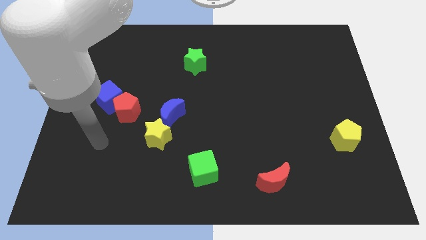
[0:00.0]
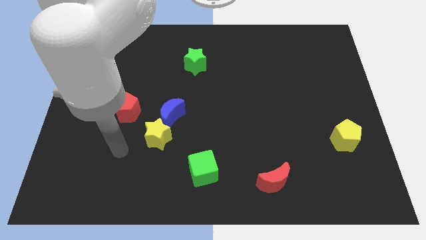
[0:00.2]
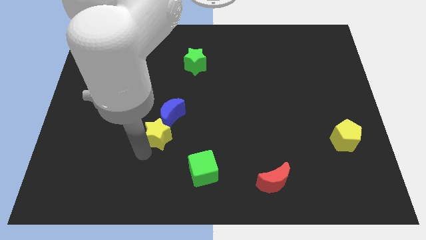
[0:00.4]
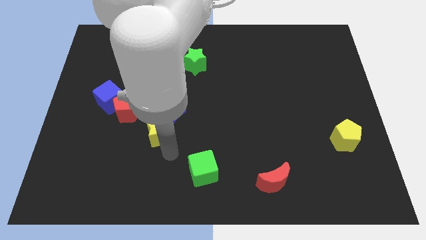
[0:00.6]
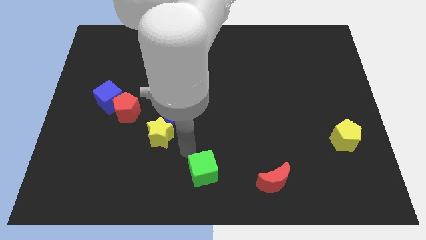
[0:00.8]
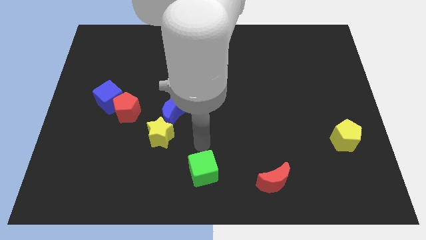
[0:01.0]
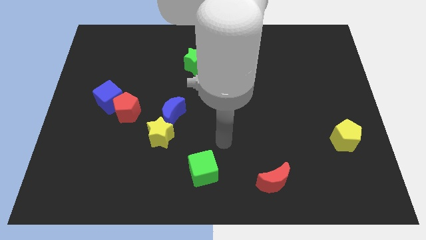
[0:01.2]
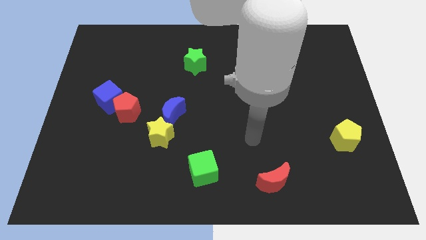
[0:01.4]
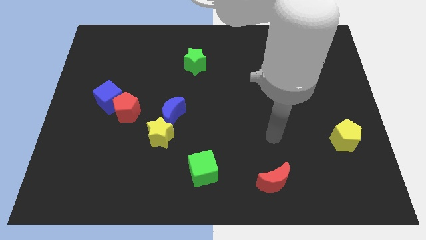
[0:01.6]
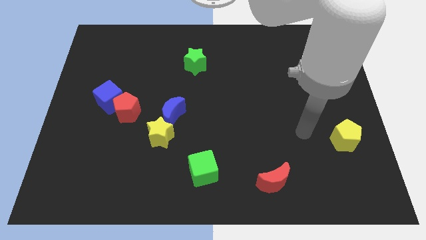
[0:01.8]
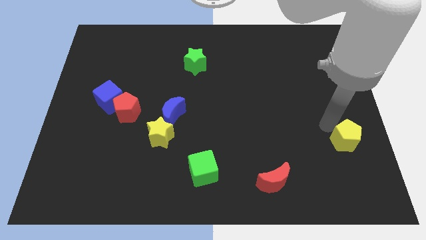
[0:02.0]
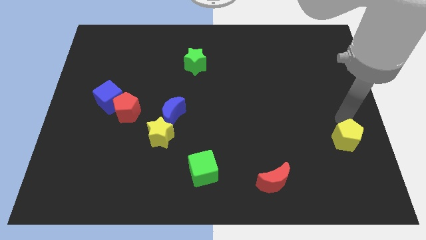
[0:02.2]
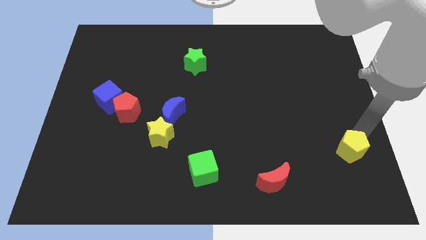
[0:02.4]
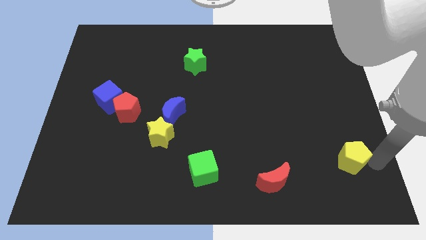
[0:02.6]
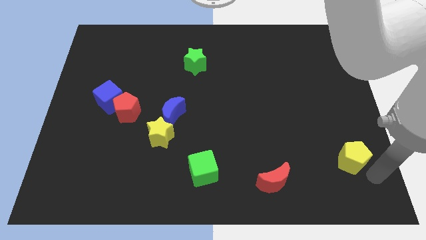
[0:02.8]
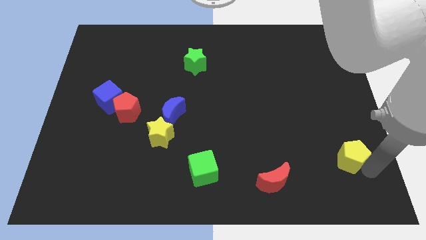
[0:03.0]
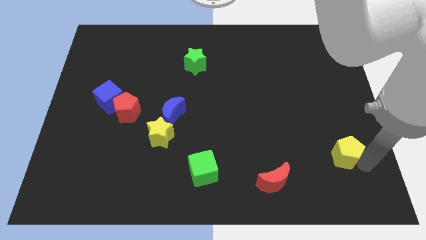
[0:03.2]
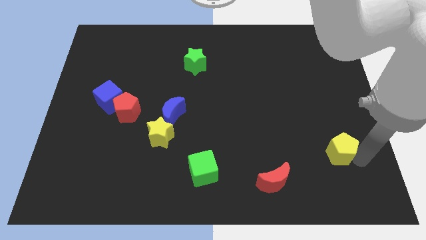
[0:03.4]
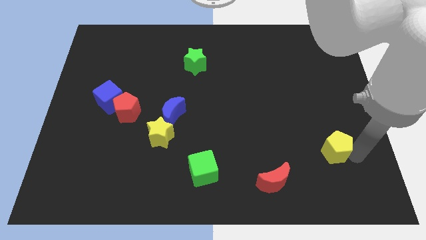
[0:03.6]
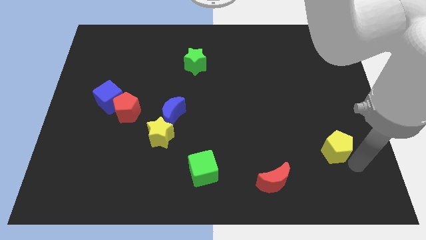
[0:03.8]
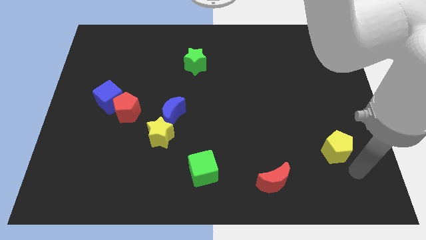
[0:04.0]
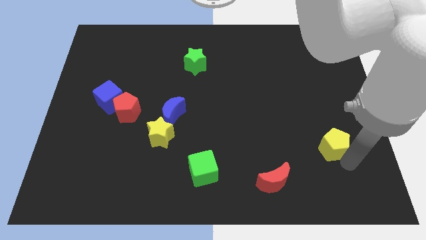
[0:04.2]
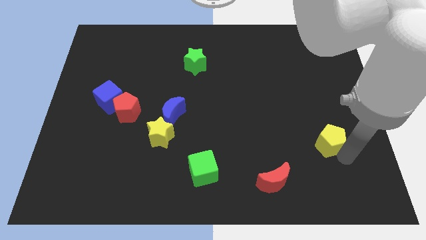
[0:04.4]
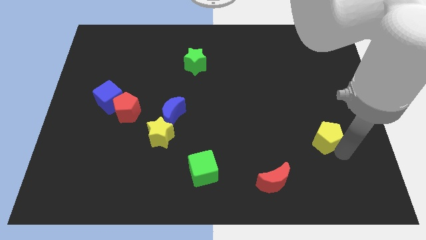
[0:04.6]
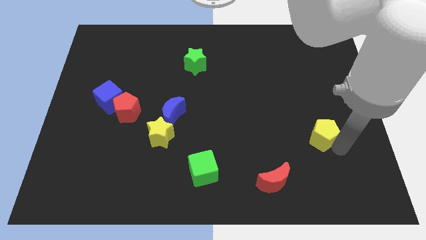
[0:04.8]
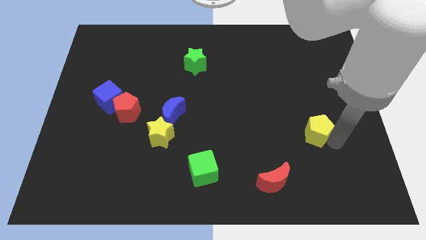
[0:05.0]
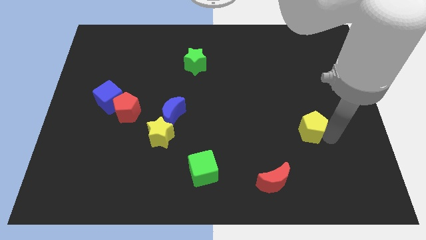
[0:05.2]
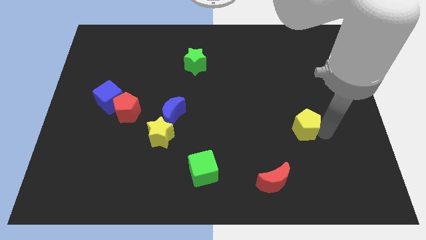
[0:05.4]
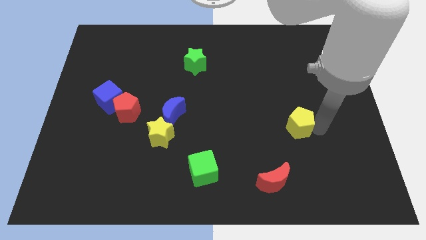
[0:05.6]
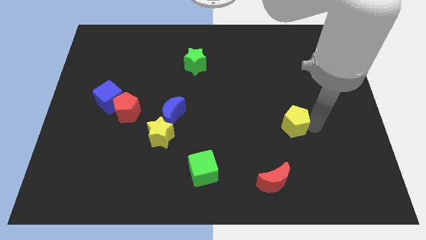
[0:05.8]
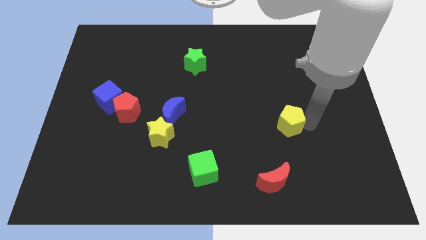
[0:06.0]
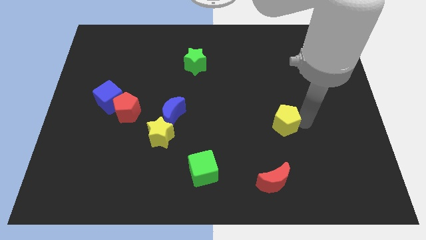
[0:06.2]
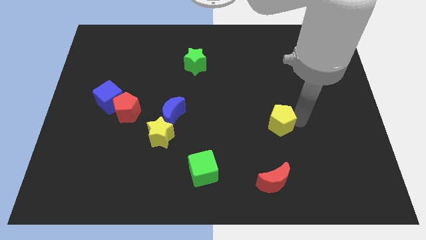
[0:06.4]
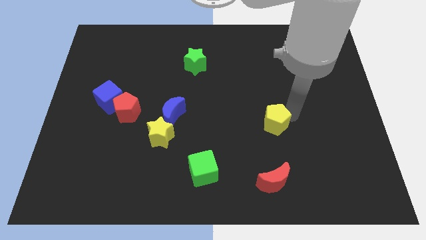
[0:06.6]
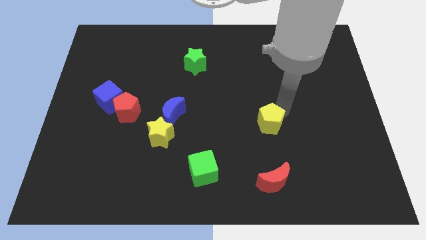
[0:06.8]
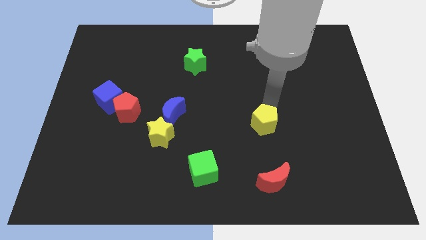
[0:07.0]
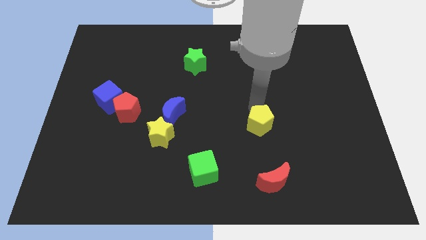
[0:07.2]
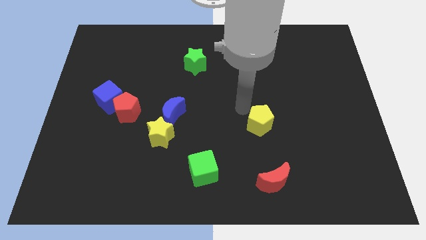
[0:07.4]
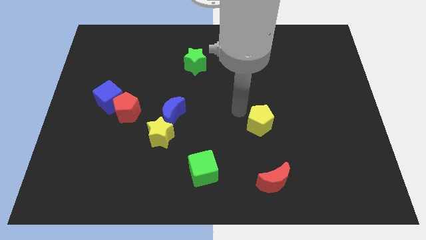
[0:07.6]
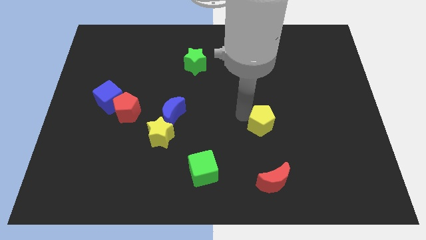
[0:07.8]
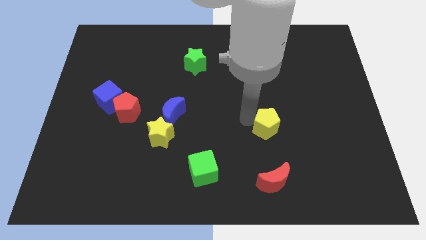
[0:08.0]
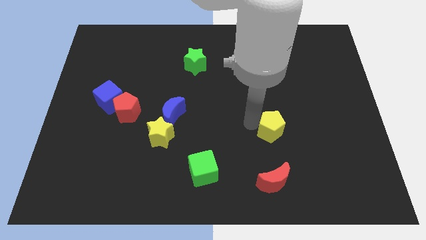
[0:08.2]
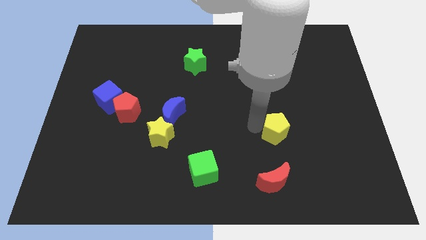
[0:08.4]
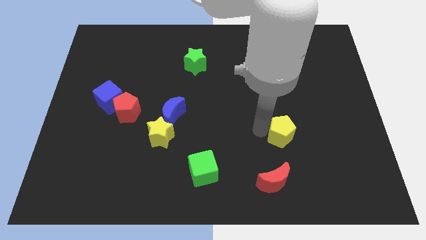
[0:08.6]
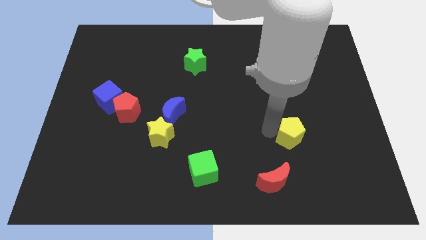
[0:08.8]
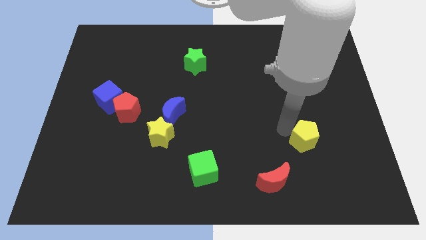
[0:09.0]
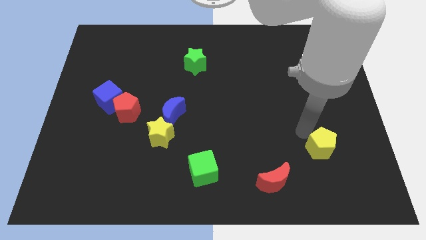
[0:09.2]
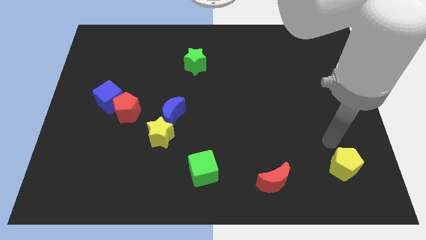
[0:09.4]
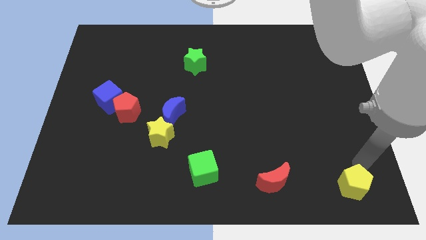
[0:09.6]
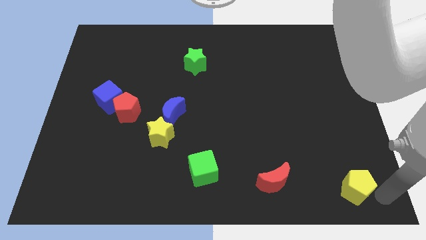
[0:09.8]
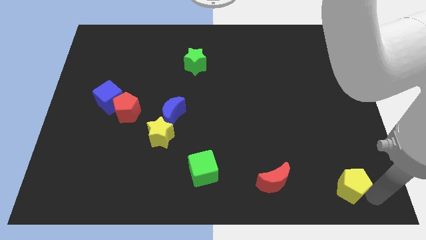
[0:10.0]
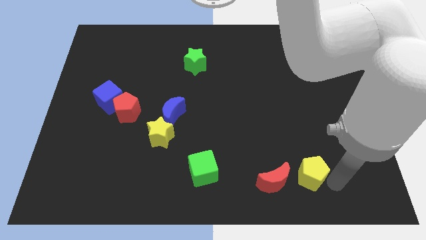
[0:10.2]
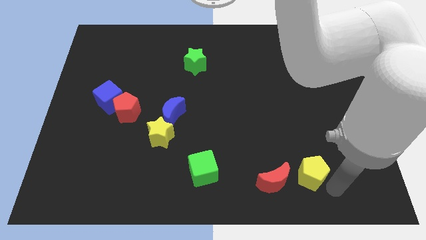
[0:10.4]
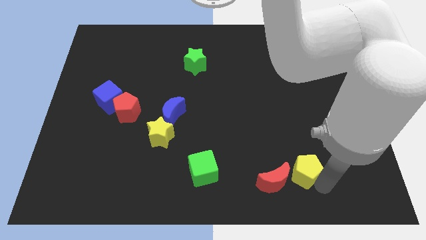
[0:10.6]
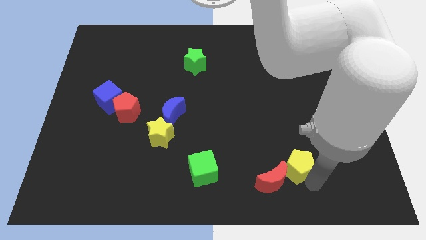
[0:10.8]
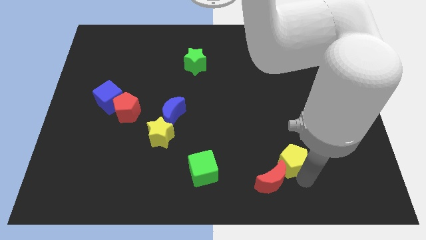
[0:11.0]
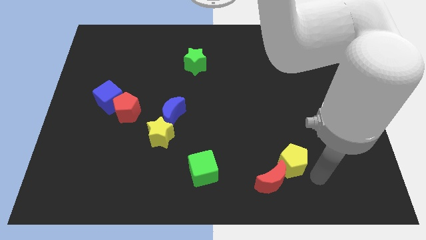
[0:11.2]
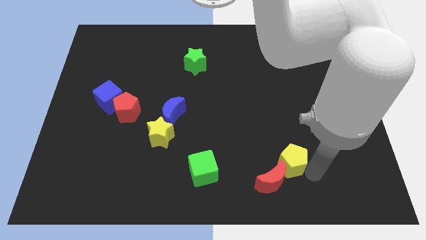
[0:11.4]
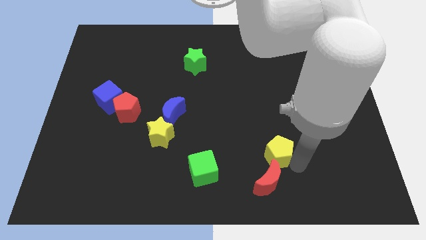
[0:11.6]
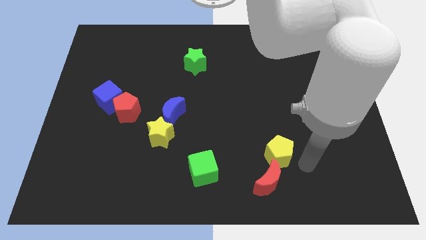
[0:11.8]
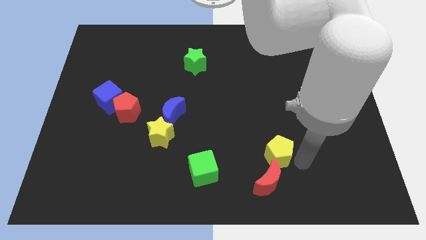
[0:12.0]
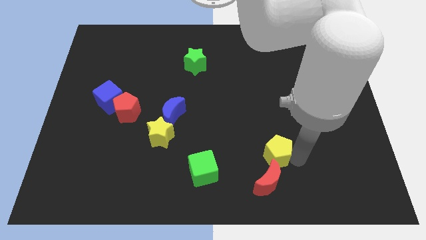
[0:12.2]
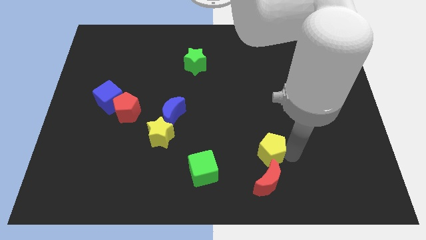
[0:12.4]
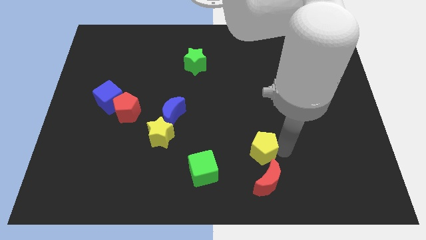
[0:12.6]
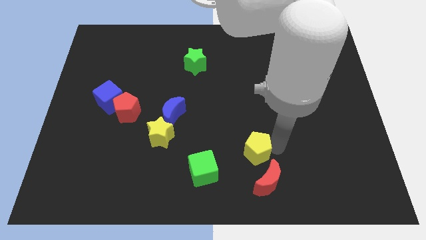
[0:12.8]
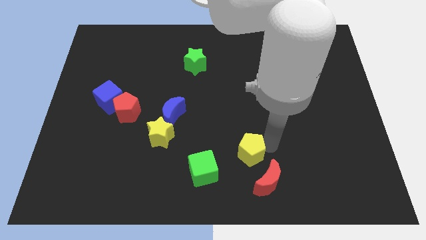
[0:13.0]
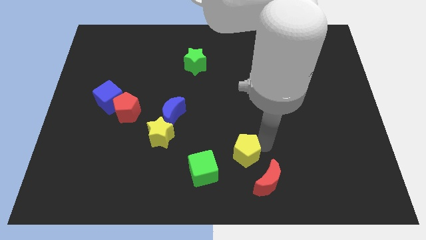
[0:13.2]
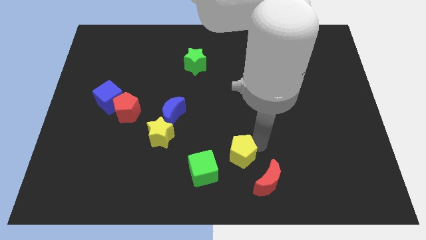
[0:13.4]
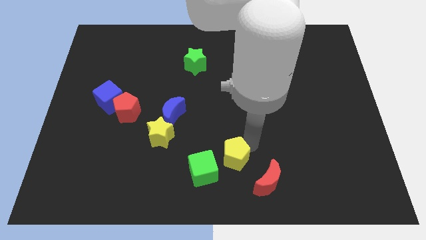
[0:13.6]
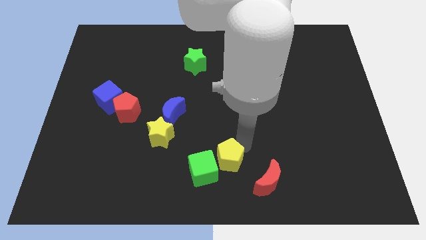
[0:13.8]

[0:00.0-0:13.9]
move the yellow pentagon close to the green cube
